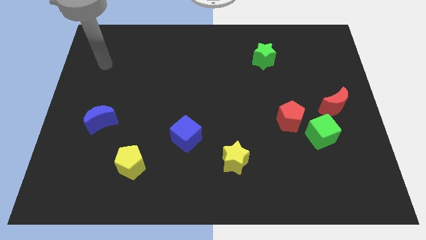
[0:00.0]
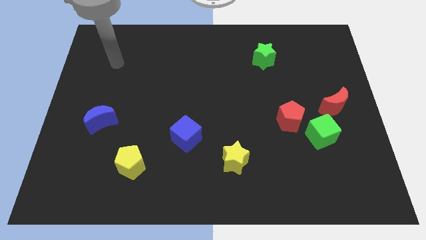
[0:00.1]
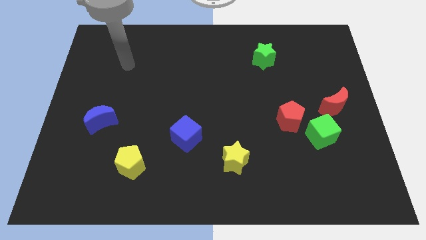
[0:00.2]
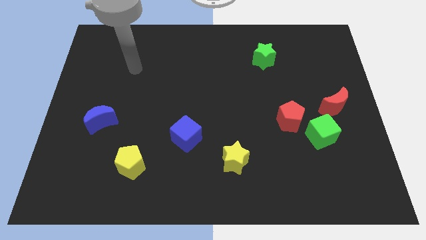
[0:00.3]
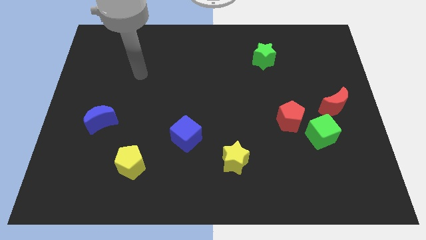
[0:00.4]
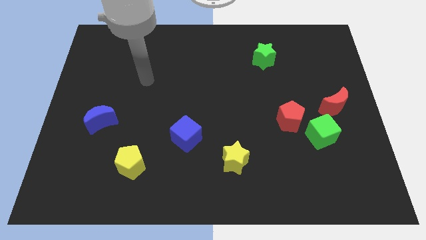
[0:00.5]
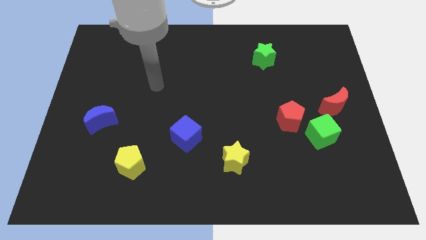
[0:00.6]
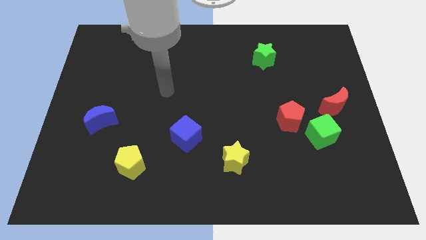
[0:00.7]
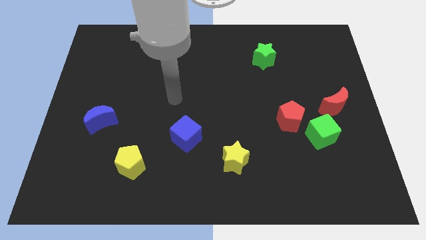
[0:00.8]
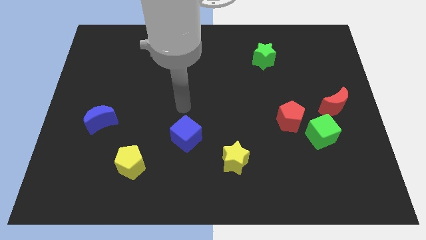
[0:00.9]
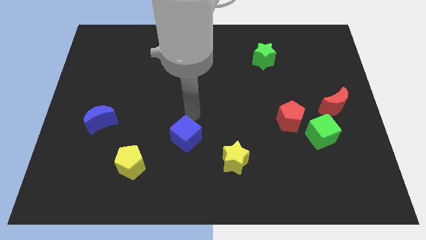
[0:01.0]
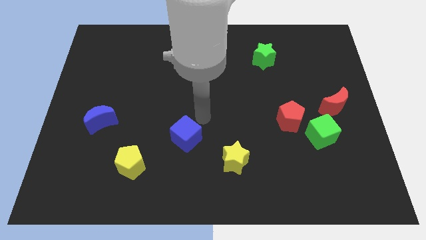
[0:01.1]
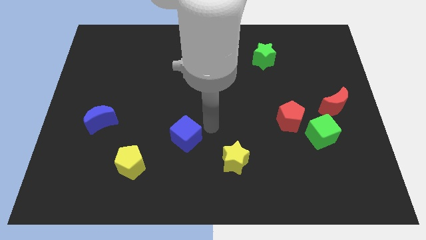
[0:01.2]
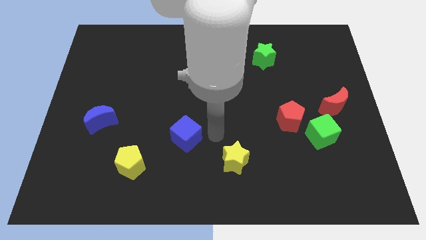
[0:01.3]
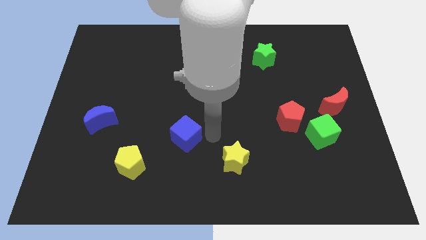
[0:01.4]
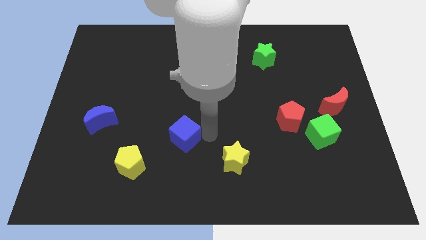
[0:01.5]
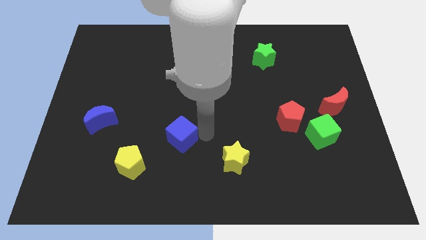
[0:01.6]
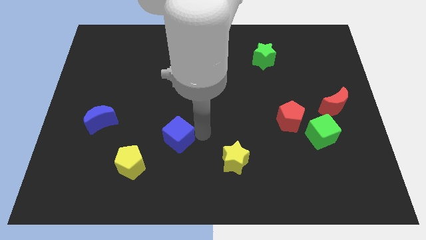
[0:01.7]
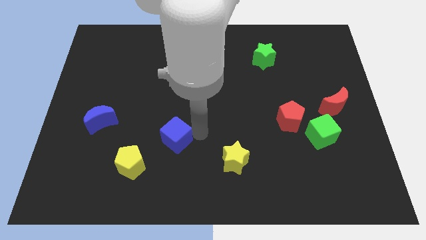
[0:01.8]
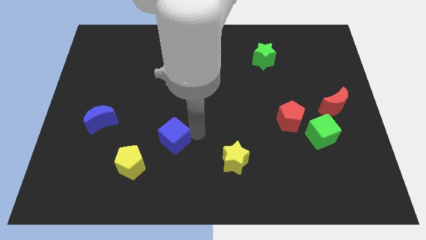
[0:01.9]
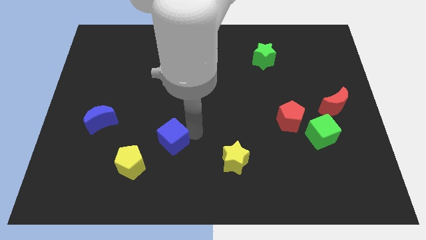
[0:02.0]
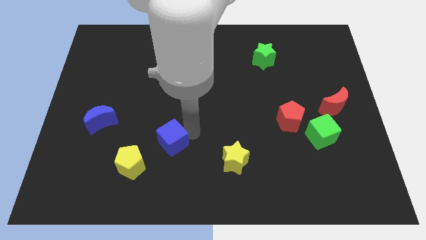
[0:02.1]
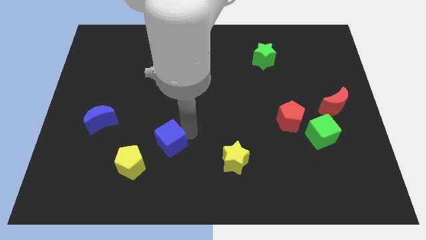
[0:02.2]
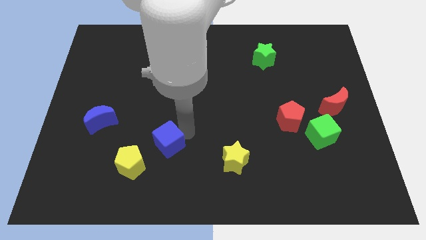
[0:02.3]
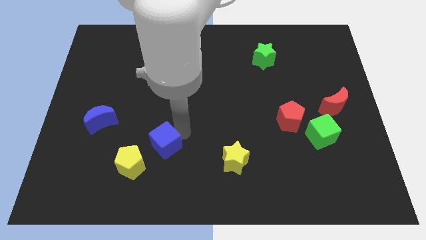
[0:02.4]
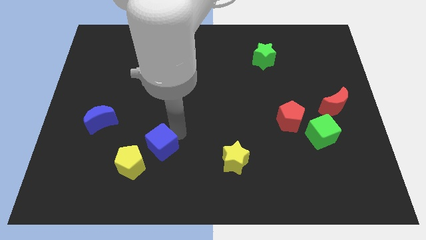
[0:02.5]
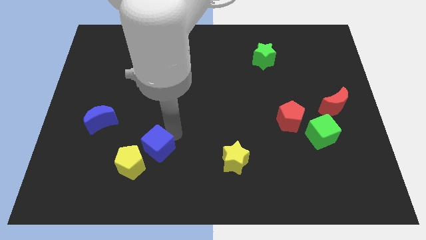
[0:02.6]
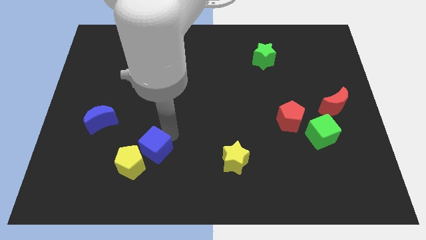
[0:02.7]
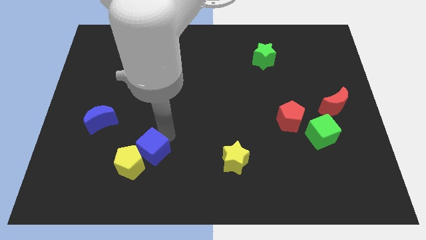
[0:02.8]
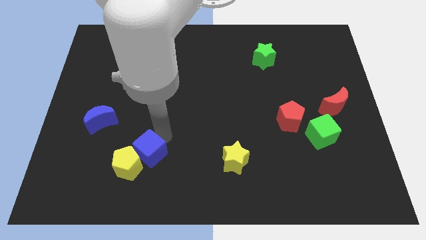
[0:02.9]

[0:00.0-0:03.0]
move the blue cube left a bit

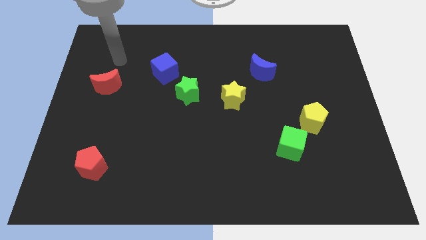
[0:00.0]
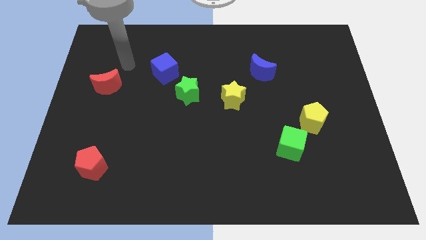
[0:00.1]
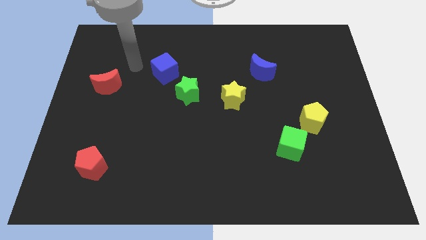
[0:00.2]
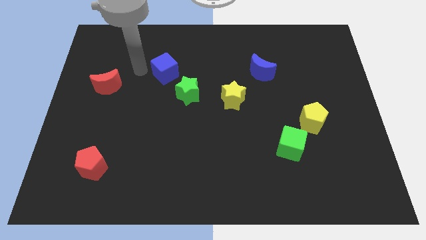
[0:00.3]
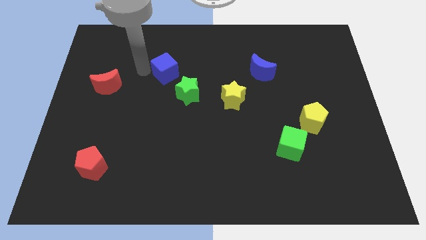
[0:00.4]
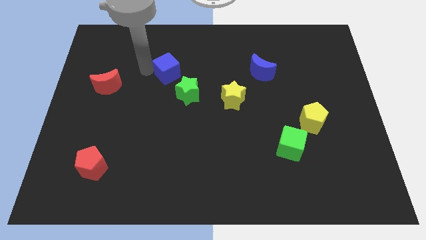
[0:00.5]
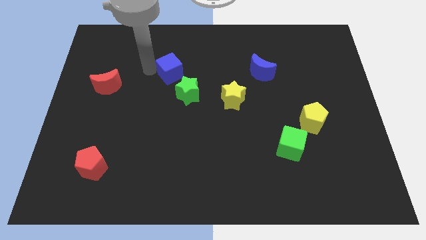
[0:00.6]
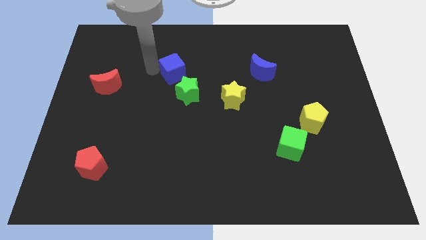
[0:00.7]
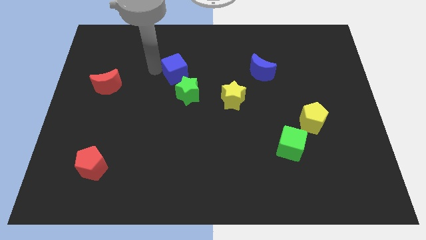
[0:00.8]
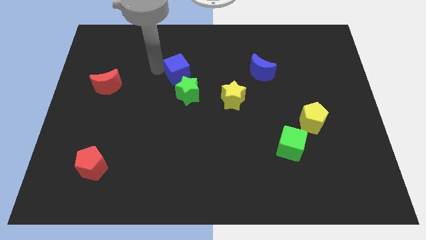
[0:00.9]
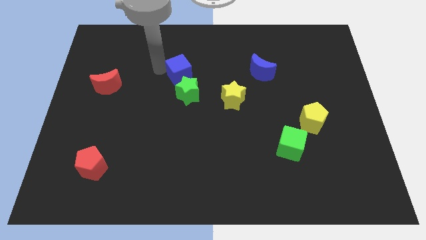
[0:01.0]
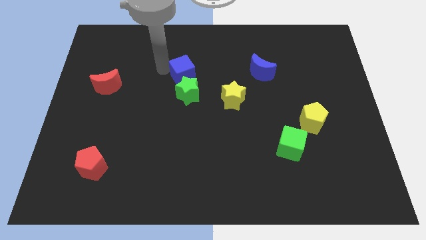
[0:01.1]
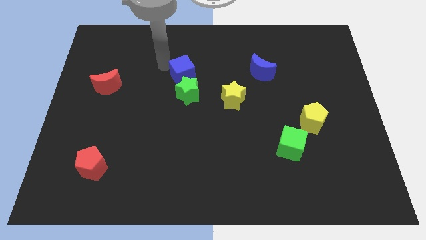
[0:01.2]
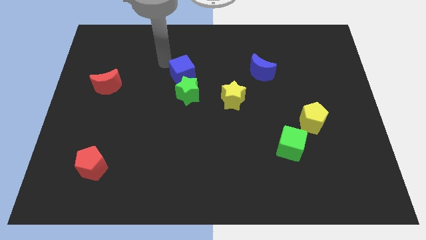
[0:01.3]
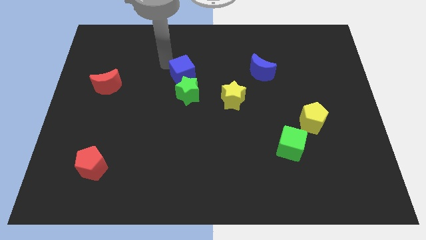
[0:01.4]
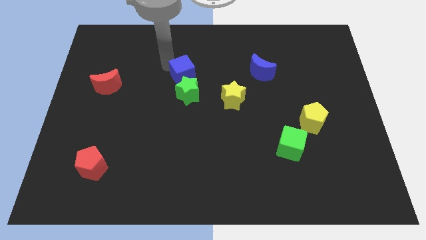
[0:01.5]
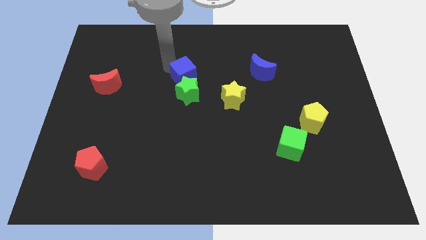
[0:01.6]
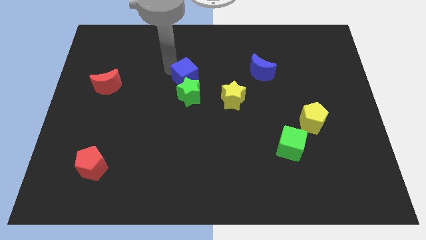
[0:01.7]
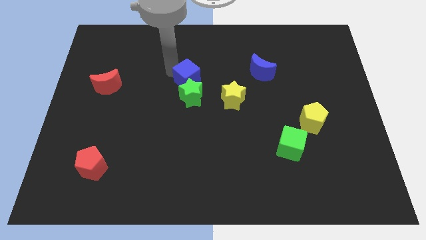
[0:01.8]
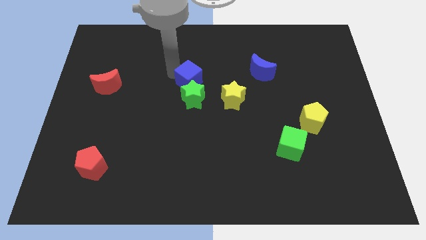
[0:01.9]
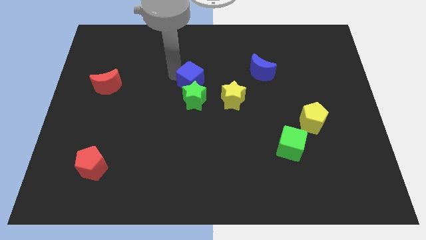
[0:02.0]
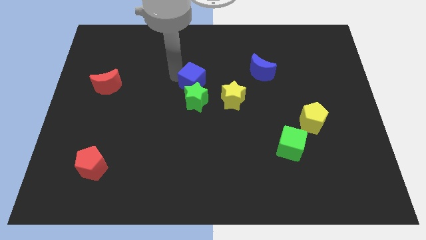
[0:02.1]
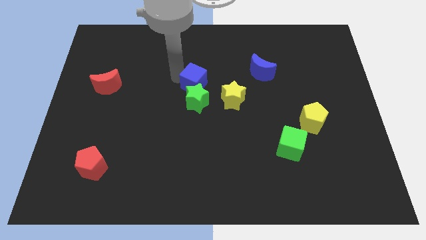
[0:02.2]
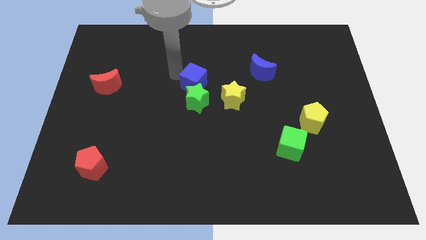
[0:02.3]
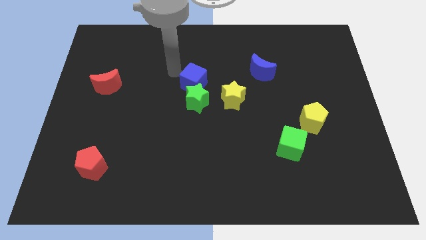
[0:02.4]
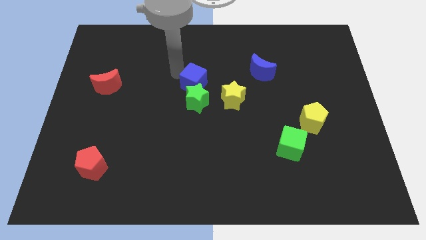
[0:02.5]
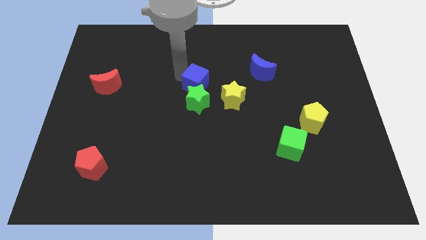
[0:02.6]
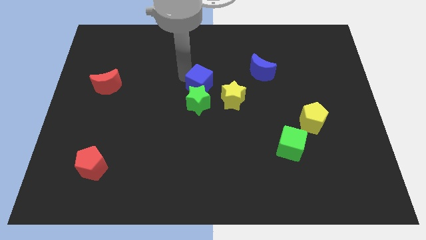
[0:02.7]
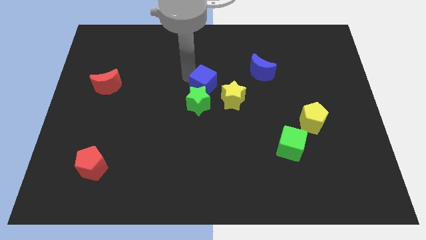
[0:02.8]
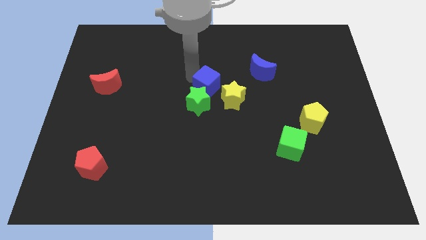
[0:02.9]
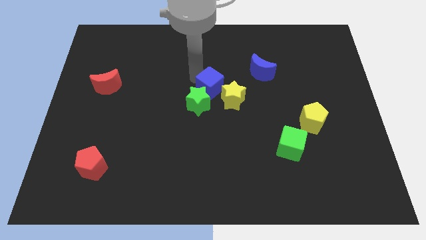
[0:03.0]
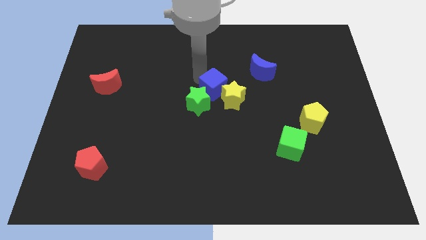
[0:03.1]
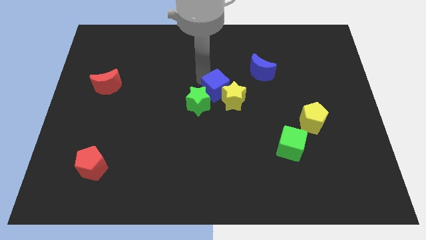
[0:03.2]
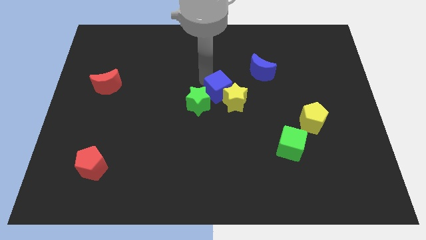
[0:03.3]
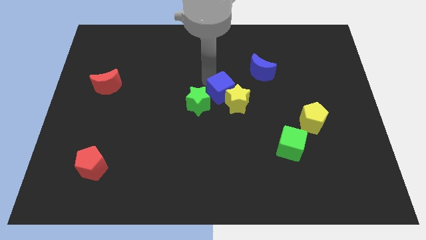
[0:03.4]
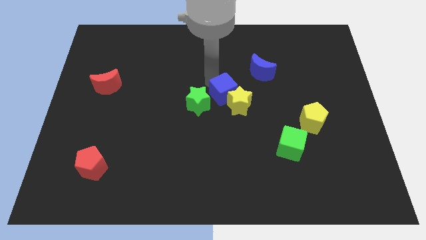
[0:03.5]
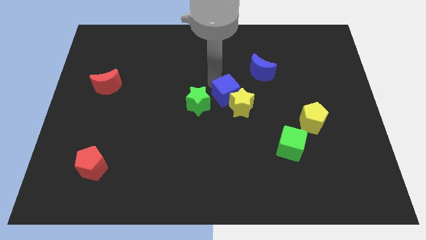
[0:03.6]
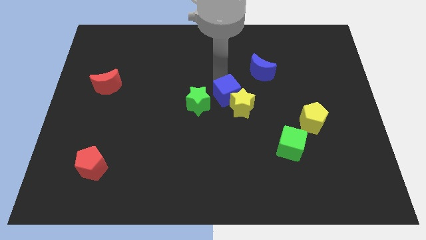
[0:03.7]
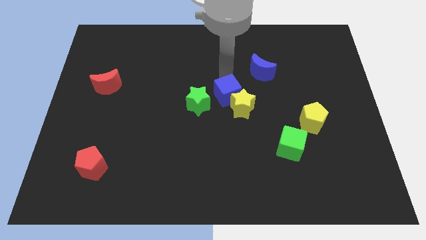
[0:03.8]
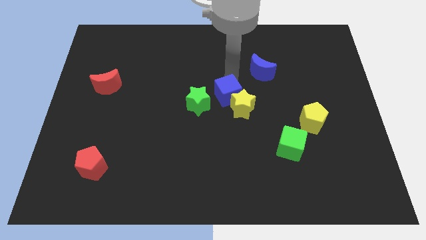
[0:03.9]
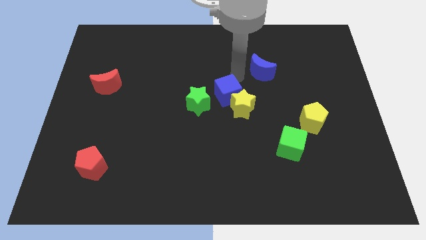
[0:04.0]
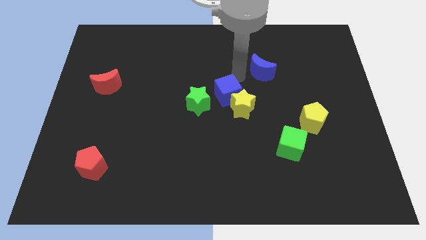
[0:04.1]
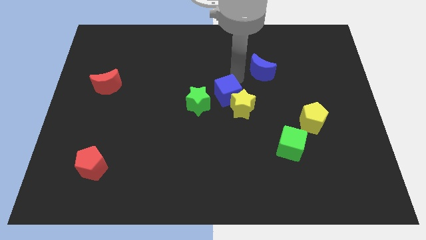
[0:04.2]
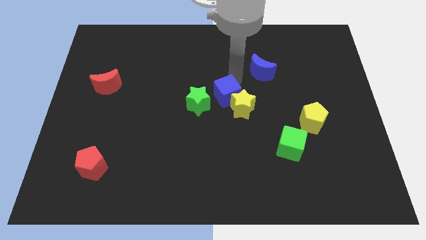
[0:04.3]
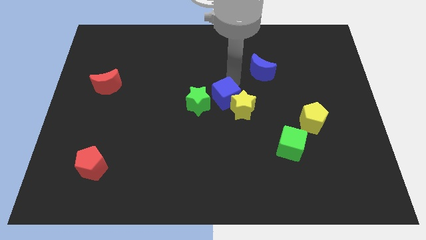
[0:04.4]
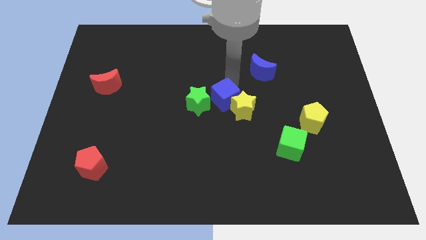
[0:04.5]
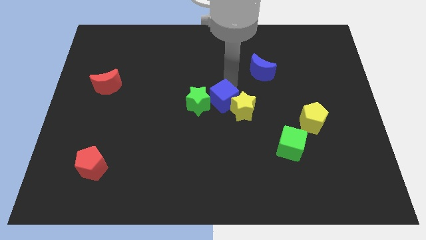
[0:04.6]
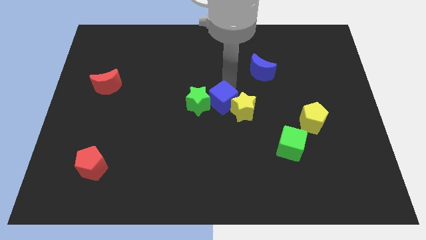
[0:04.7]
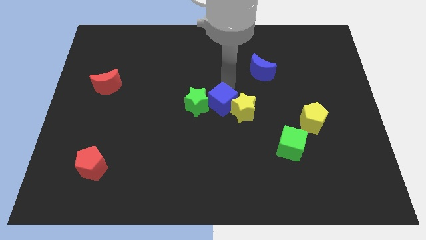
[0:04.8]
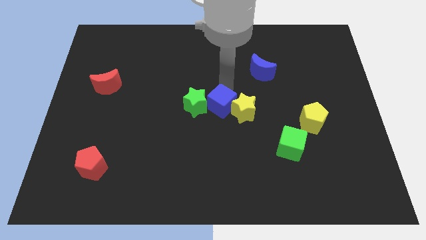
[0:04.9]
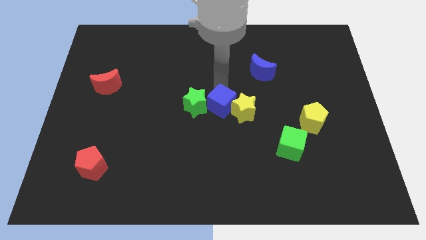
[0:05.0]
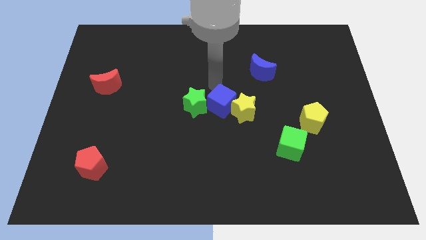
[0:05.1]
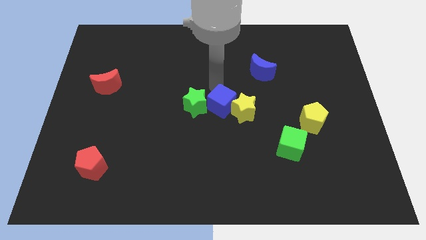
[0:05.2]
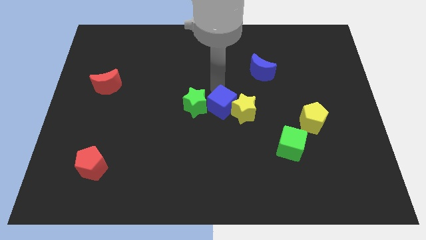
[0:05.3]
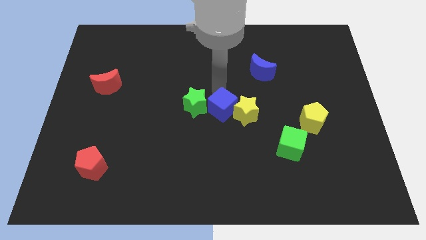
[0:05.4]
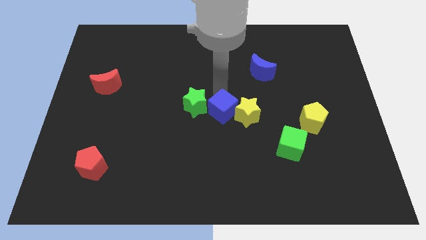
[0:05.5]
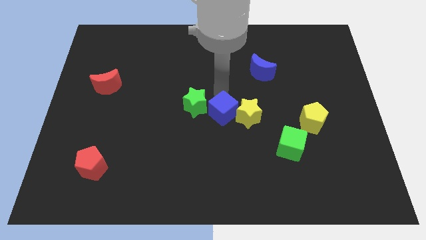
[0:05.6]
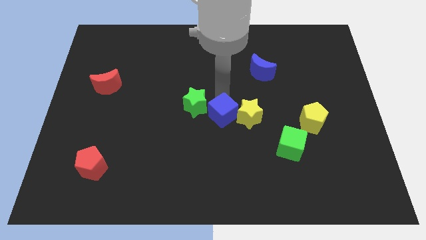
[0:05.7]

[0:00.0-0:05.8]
slide the blue cube diagonally down and right
